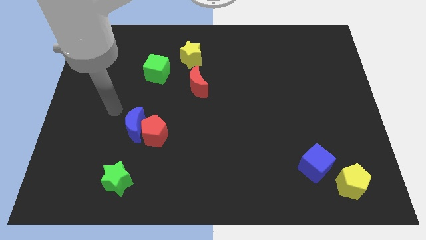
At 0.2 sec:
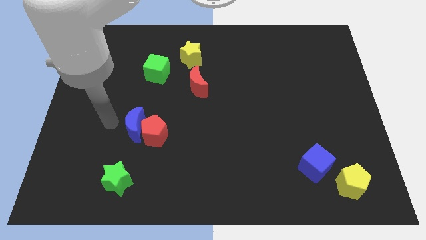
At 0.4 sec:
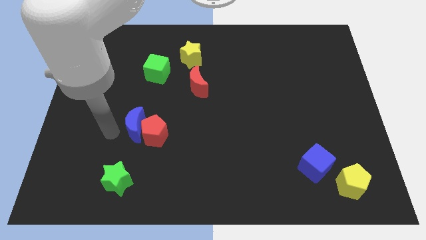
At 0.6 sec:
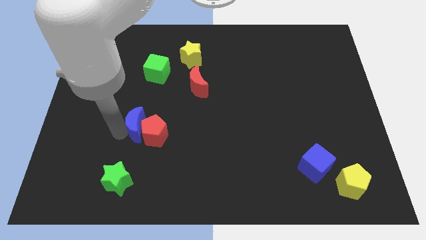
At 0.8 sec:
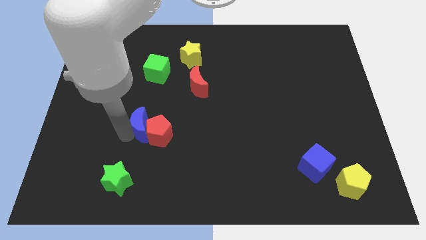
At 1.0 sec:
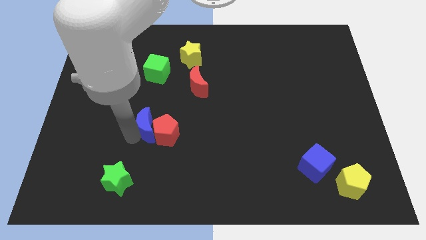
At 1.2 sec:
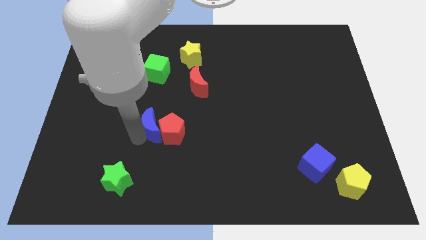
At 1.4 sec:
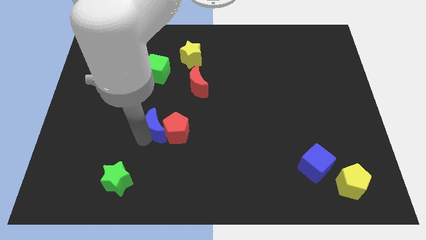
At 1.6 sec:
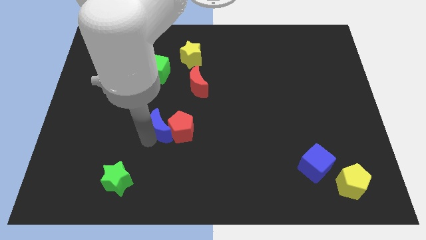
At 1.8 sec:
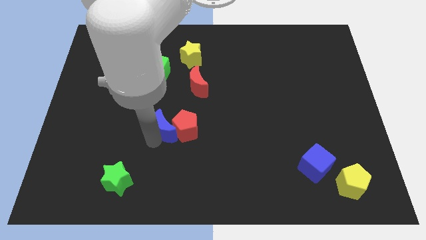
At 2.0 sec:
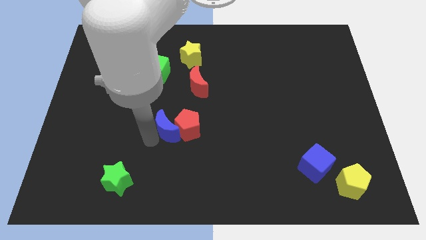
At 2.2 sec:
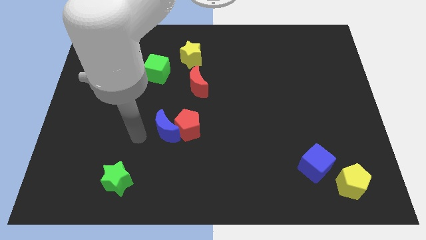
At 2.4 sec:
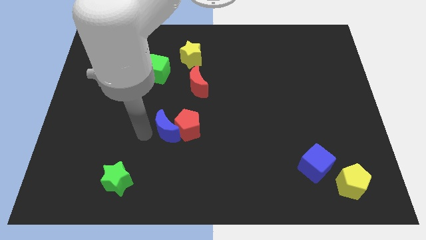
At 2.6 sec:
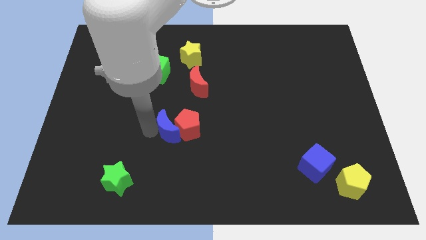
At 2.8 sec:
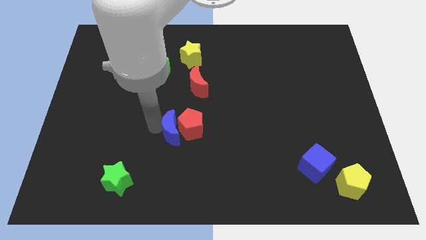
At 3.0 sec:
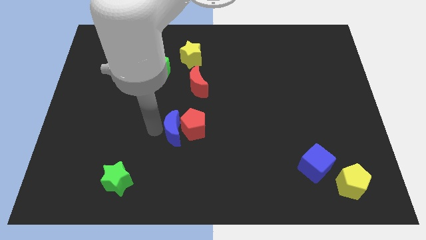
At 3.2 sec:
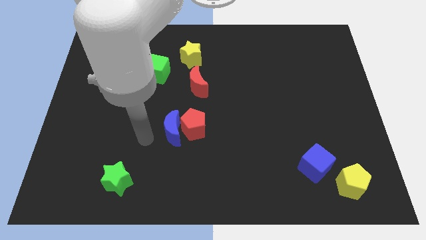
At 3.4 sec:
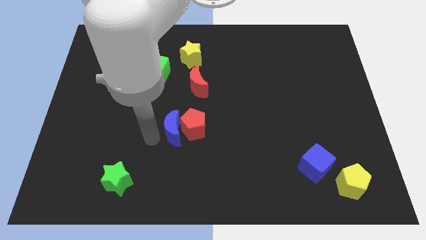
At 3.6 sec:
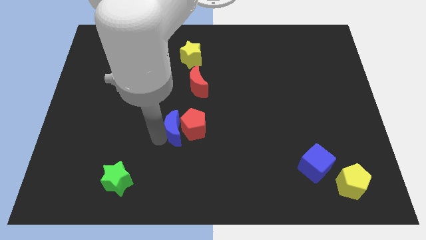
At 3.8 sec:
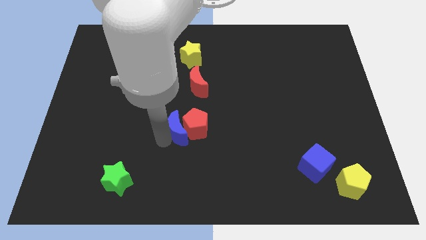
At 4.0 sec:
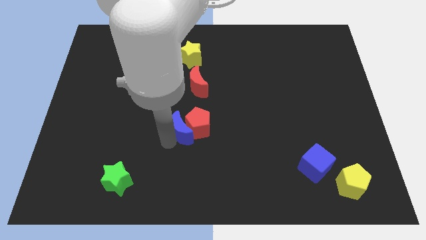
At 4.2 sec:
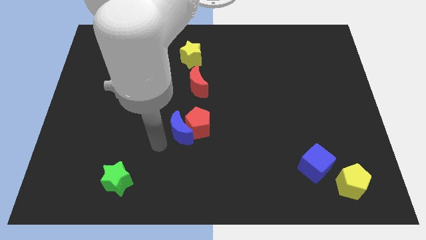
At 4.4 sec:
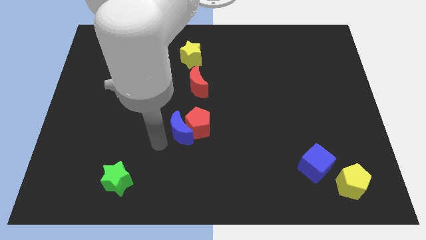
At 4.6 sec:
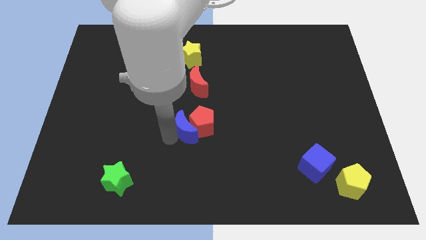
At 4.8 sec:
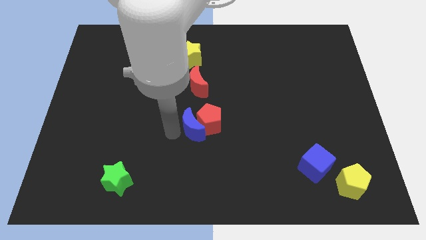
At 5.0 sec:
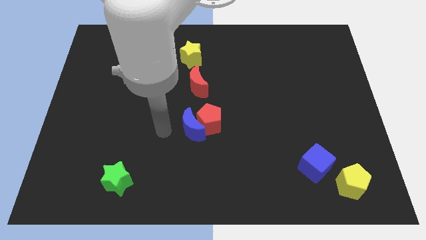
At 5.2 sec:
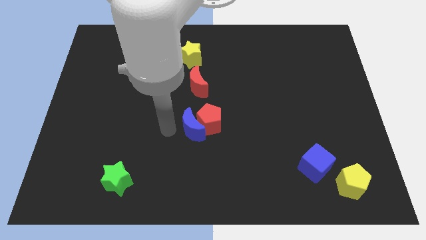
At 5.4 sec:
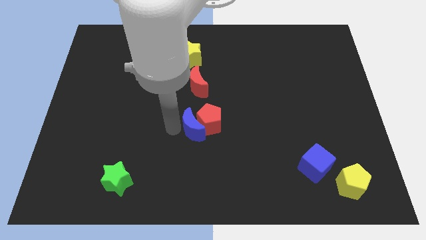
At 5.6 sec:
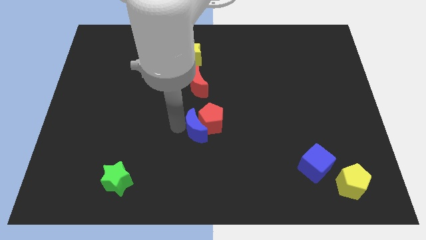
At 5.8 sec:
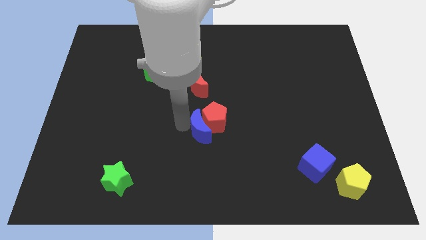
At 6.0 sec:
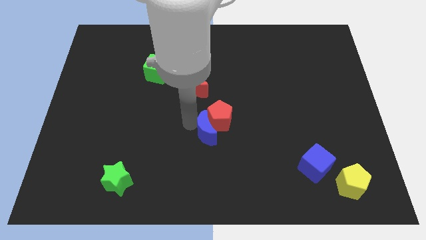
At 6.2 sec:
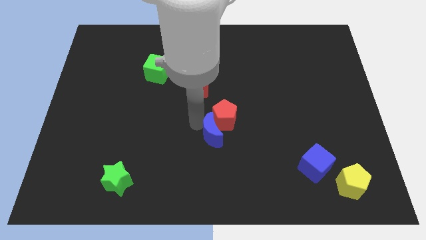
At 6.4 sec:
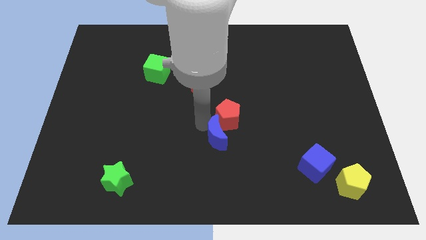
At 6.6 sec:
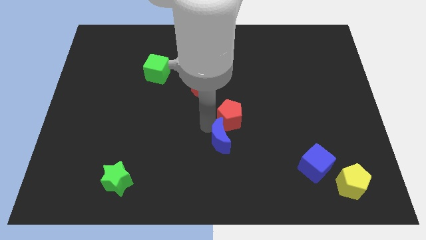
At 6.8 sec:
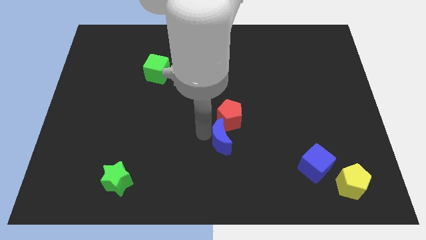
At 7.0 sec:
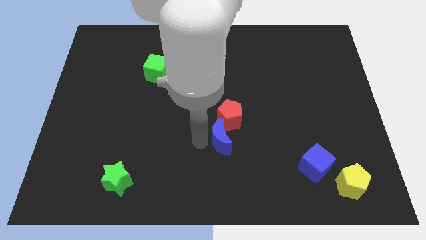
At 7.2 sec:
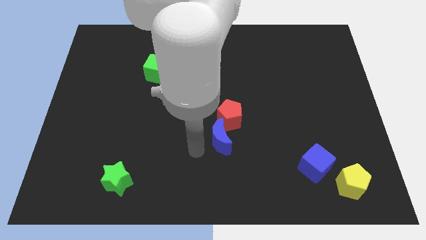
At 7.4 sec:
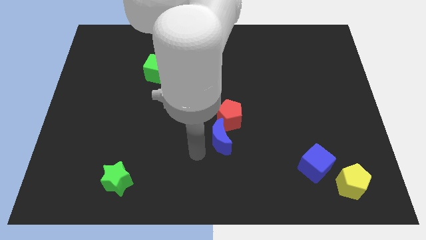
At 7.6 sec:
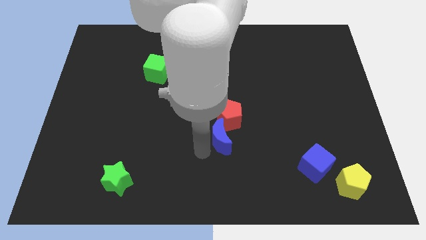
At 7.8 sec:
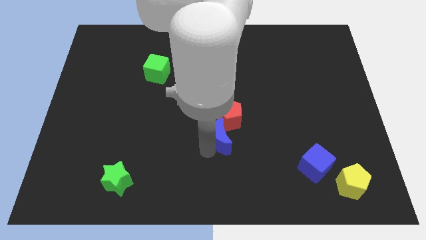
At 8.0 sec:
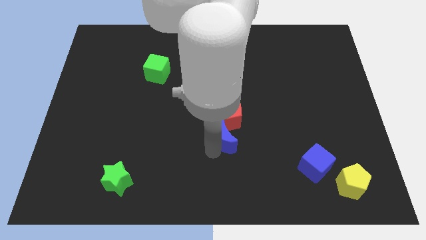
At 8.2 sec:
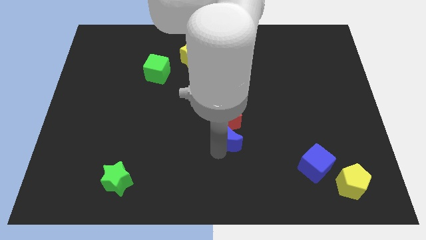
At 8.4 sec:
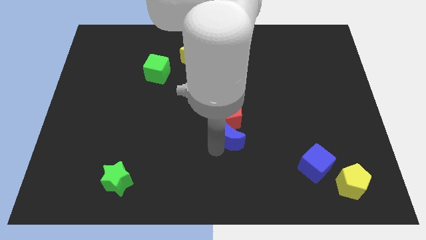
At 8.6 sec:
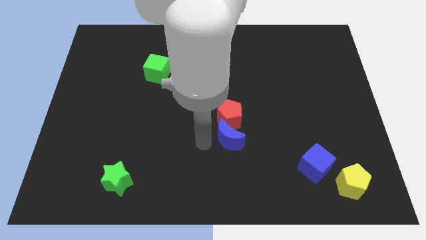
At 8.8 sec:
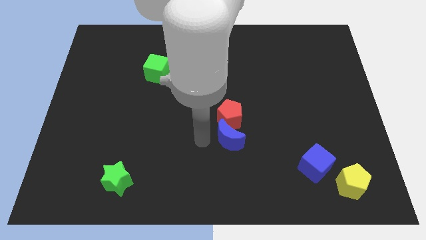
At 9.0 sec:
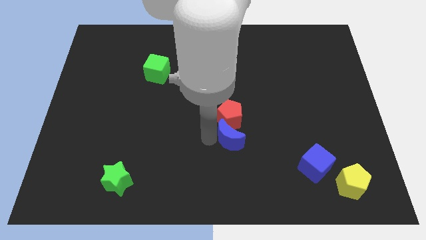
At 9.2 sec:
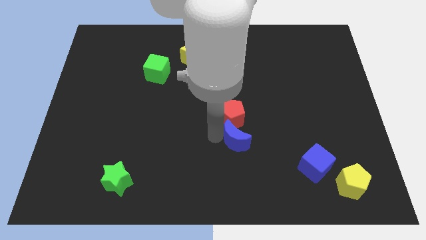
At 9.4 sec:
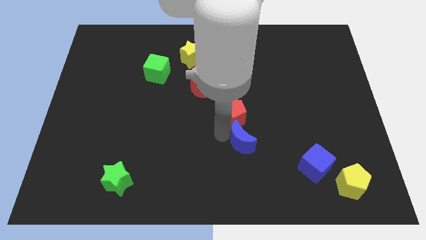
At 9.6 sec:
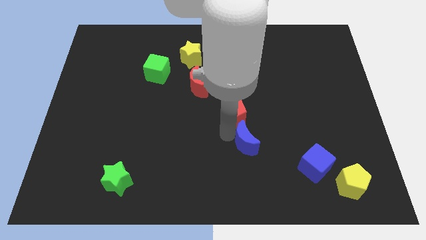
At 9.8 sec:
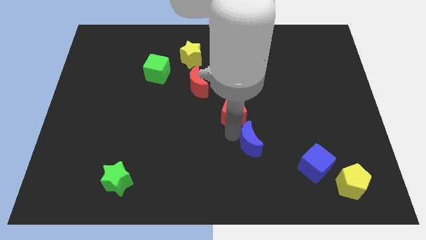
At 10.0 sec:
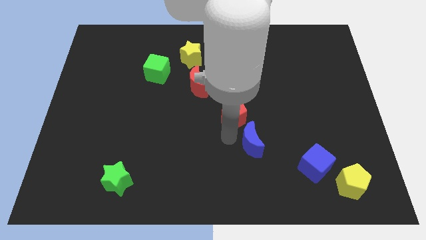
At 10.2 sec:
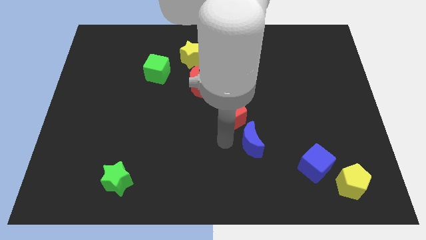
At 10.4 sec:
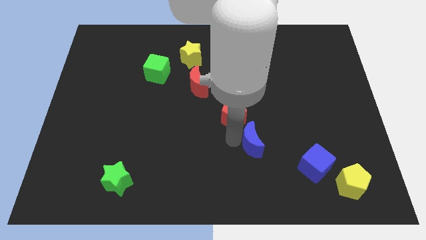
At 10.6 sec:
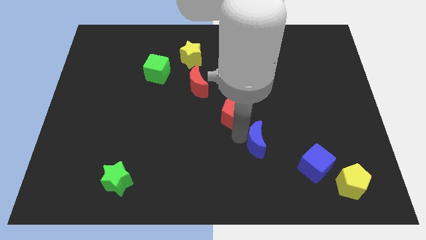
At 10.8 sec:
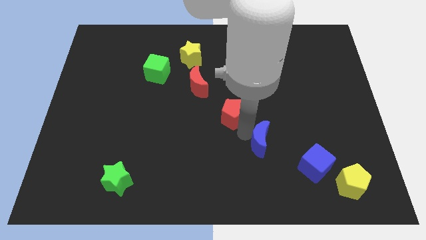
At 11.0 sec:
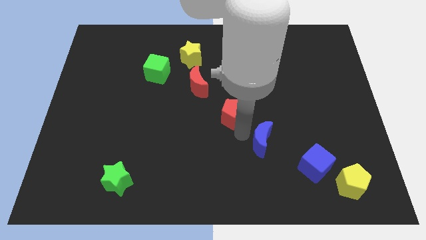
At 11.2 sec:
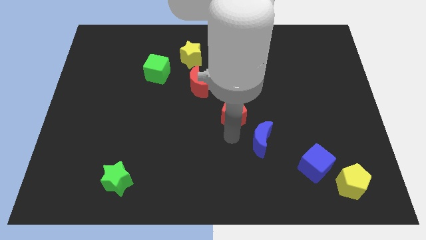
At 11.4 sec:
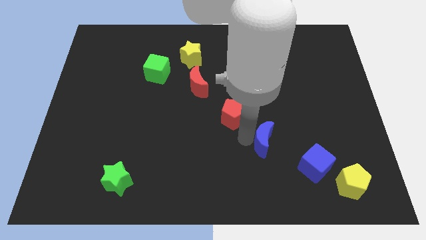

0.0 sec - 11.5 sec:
push the blue moon to the top left side of the blue cube

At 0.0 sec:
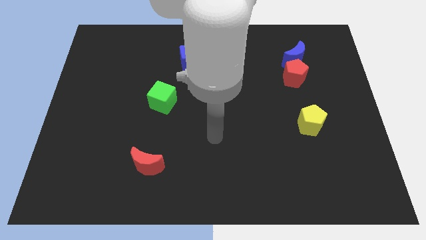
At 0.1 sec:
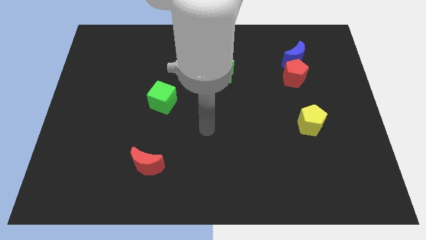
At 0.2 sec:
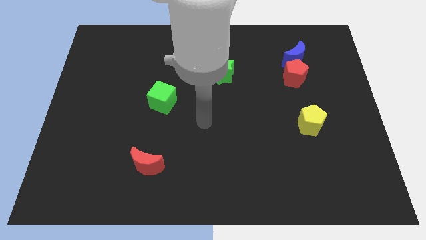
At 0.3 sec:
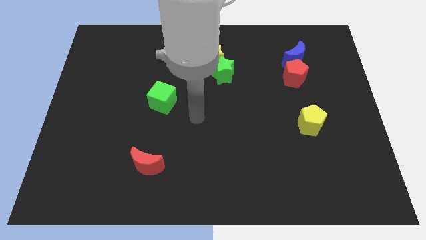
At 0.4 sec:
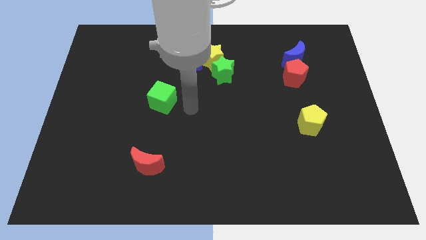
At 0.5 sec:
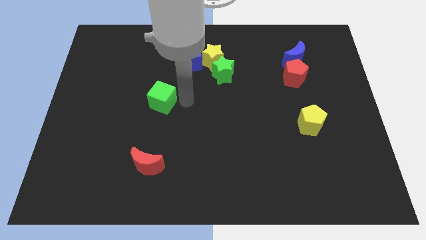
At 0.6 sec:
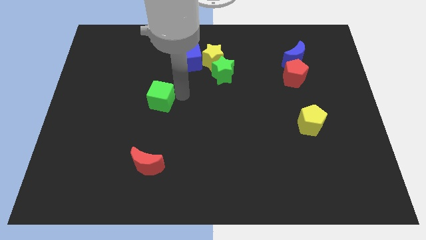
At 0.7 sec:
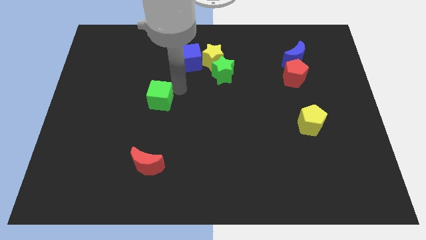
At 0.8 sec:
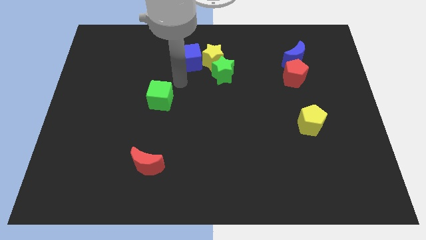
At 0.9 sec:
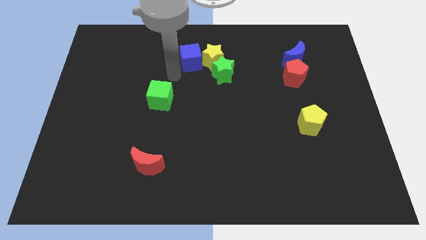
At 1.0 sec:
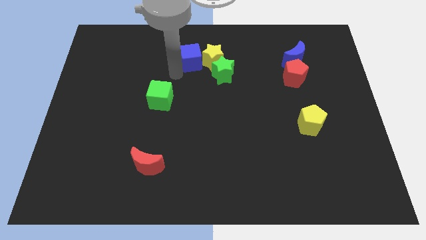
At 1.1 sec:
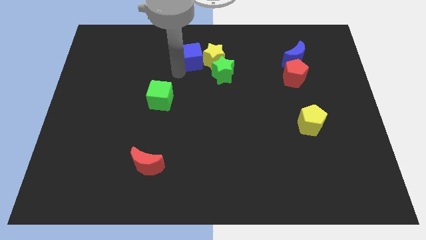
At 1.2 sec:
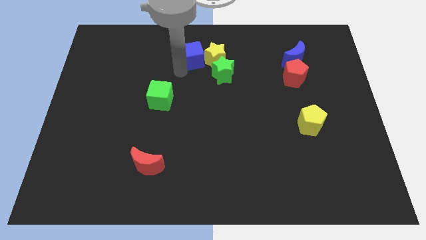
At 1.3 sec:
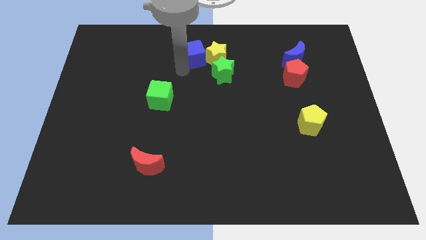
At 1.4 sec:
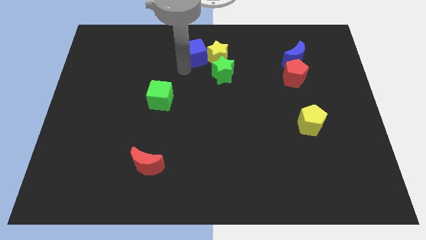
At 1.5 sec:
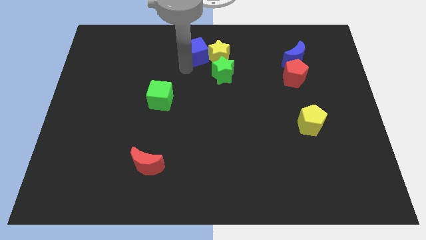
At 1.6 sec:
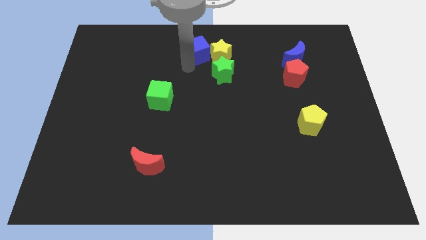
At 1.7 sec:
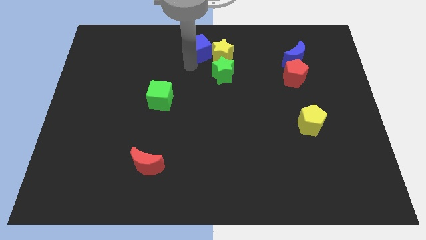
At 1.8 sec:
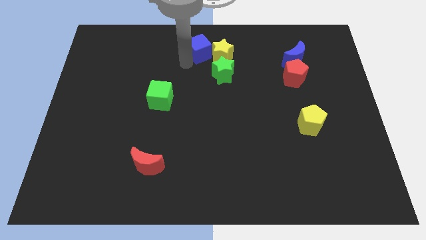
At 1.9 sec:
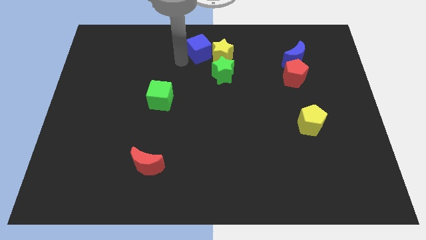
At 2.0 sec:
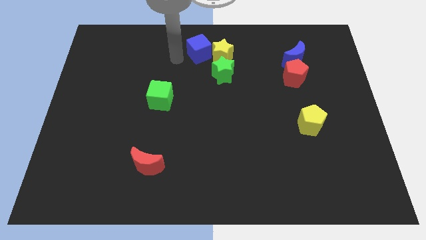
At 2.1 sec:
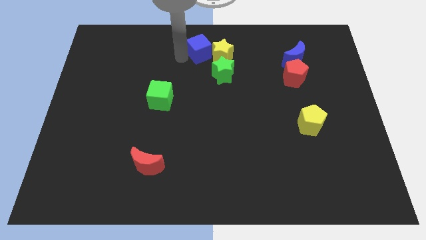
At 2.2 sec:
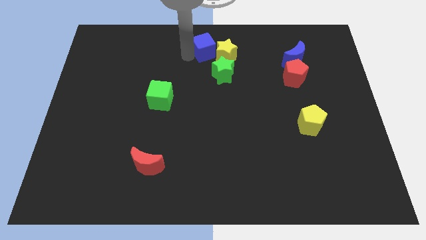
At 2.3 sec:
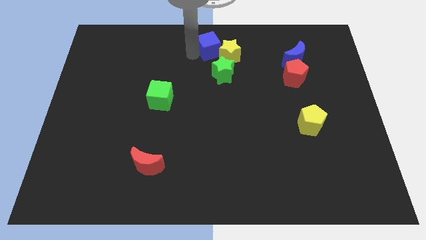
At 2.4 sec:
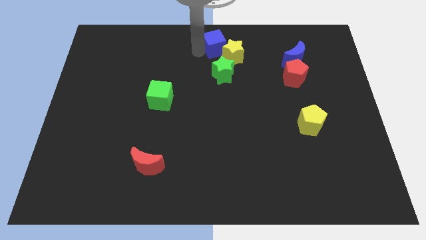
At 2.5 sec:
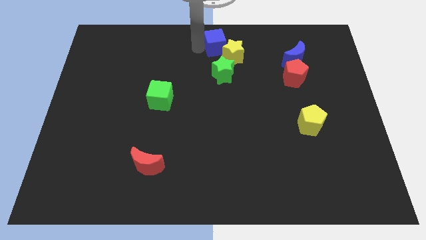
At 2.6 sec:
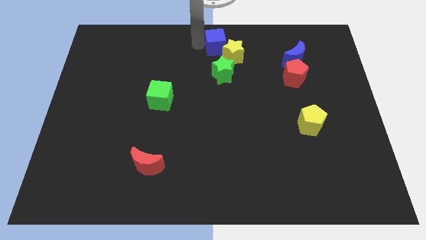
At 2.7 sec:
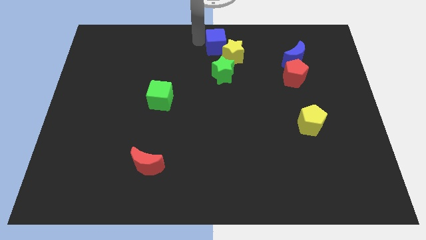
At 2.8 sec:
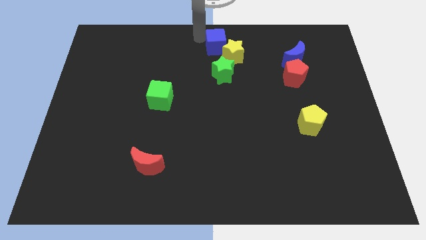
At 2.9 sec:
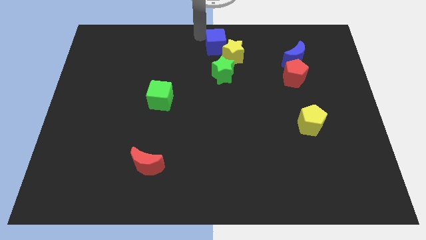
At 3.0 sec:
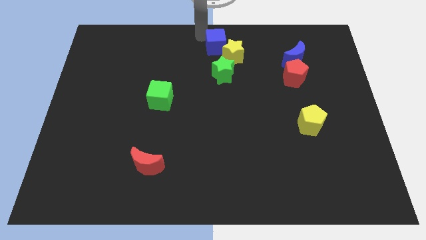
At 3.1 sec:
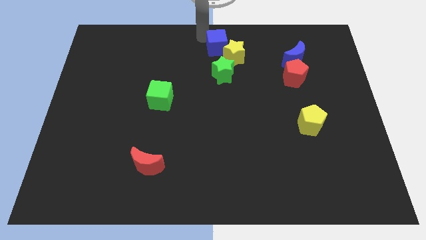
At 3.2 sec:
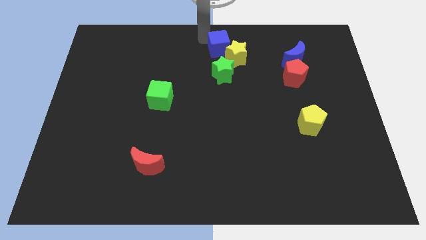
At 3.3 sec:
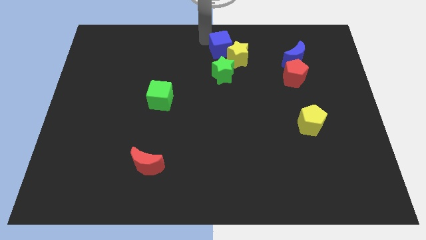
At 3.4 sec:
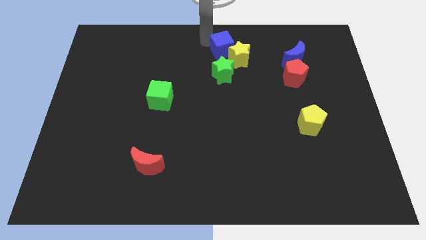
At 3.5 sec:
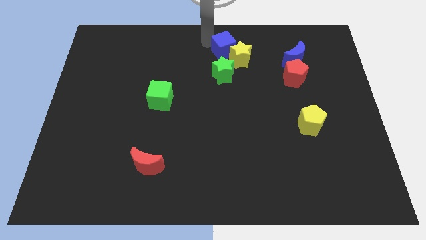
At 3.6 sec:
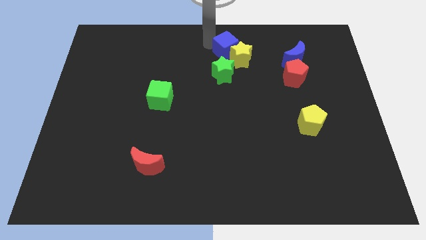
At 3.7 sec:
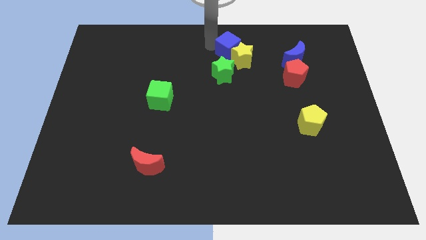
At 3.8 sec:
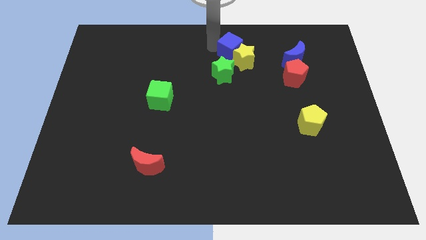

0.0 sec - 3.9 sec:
put the blue cube to the top right side of the green star
